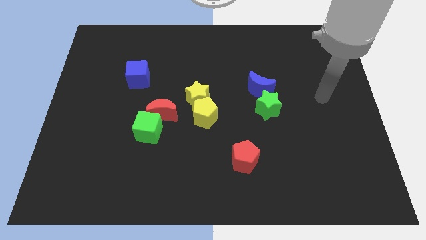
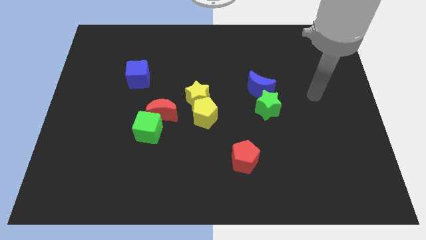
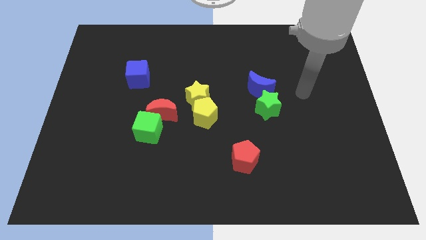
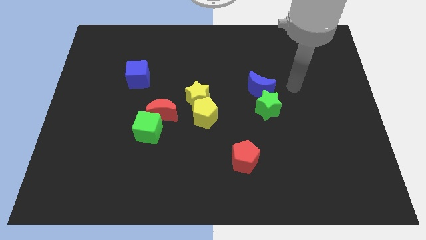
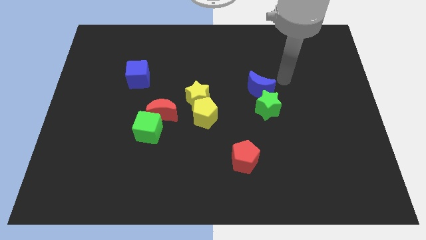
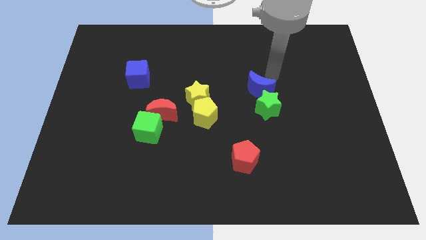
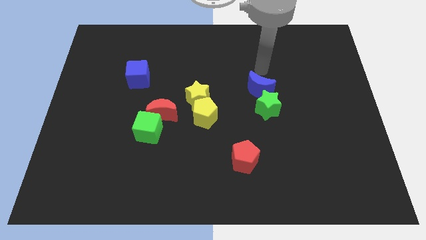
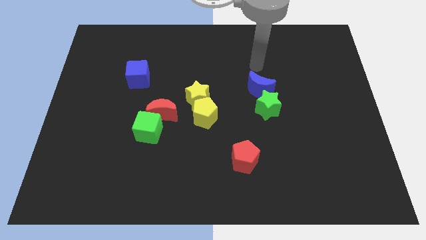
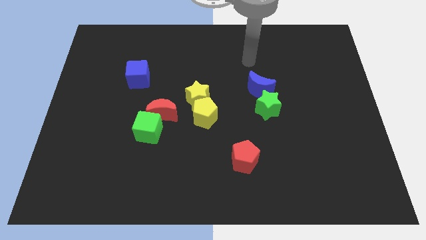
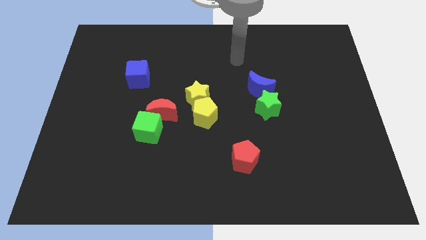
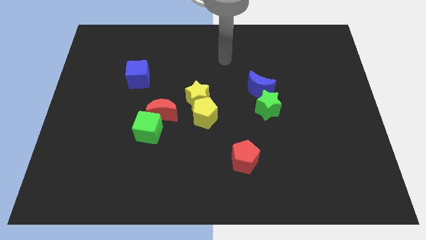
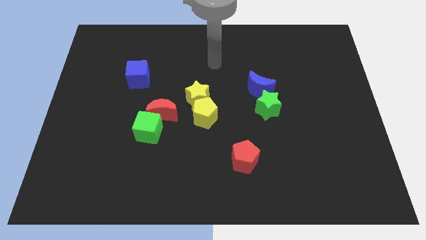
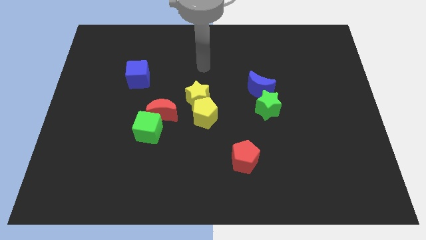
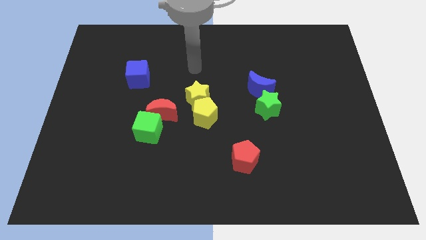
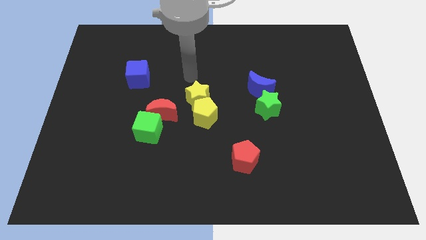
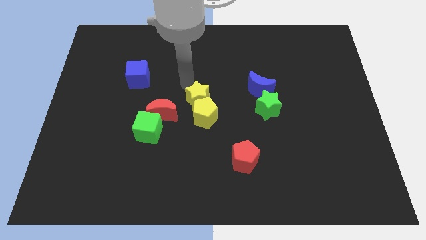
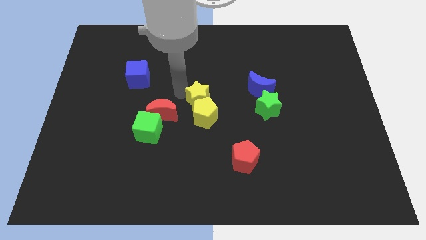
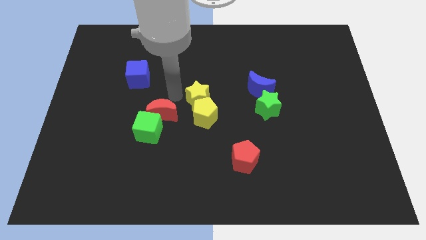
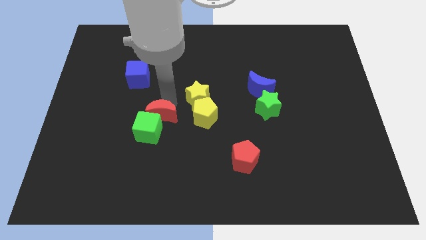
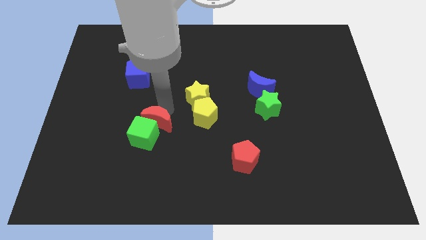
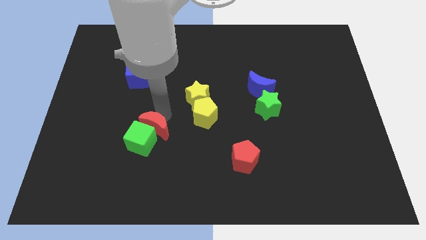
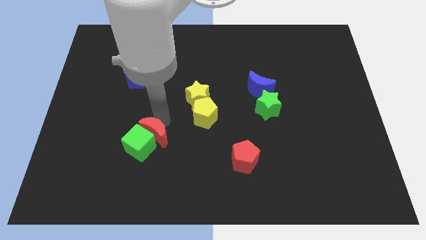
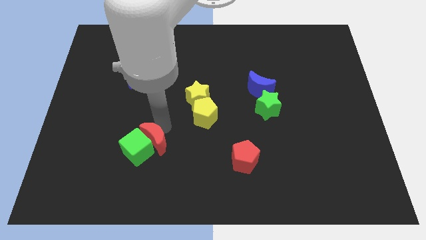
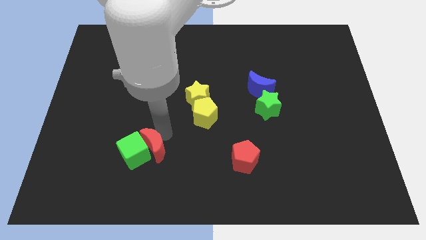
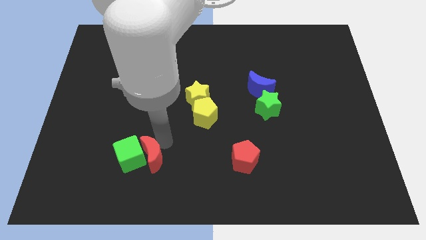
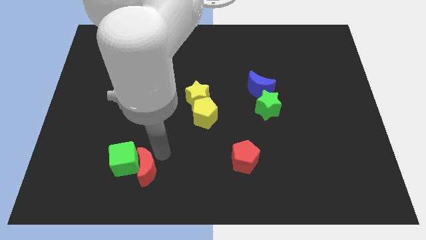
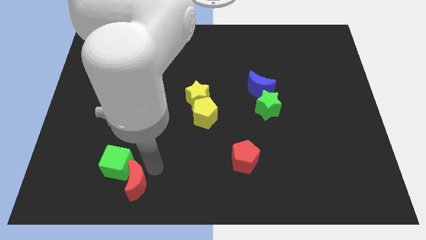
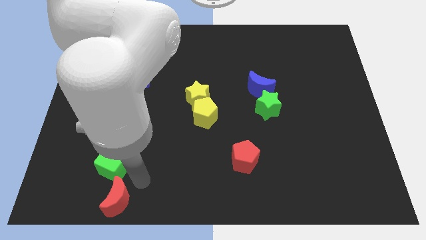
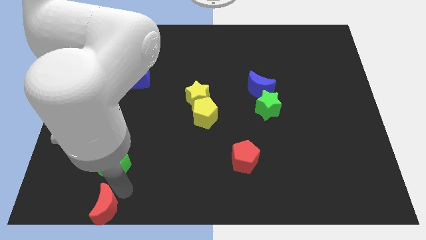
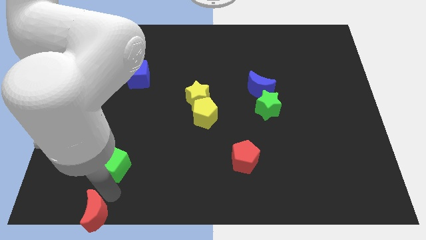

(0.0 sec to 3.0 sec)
pull the green cube apart from the red moon

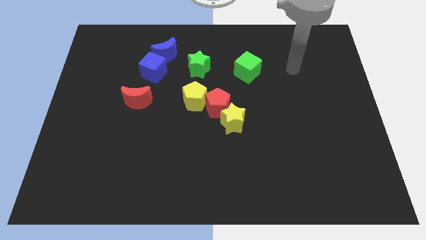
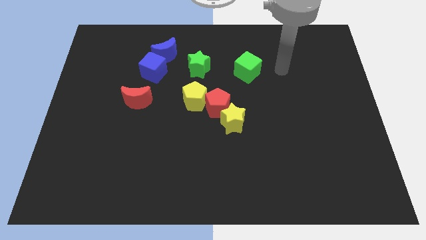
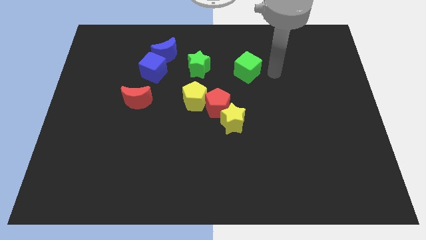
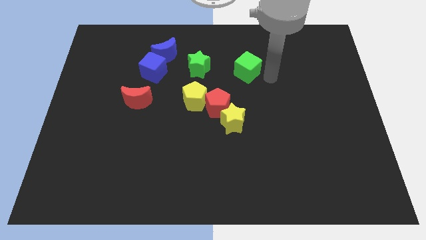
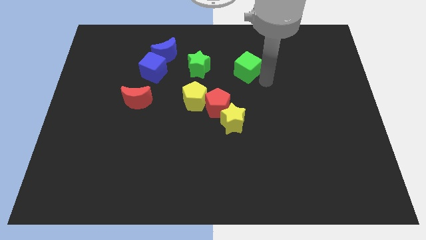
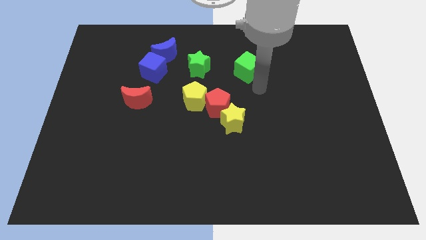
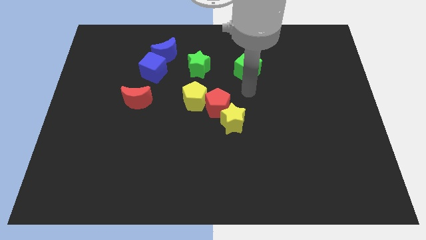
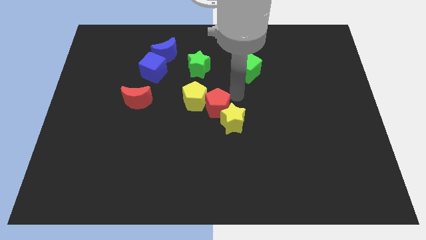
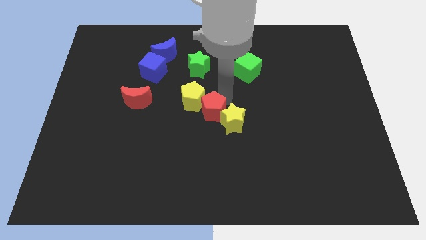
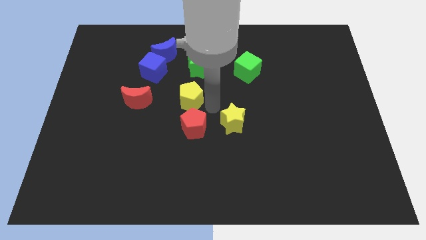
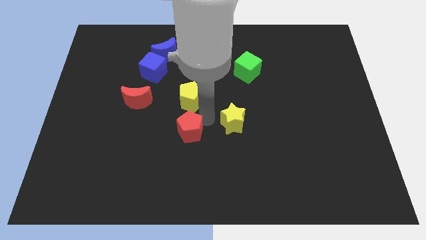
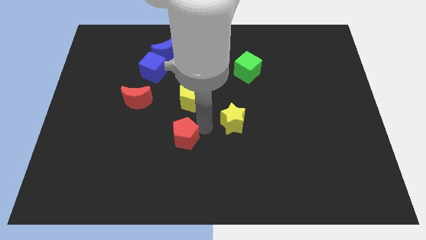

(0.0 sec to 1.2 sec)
move the yellow star away from the red pentagon

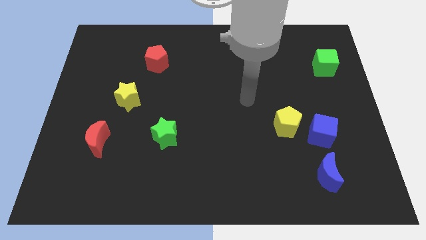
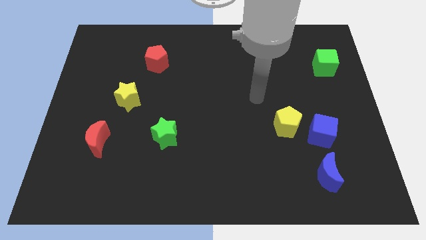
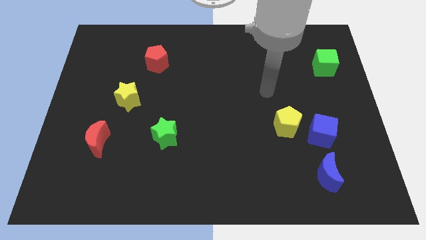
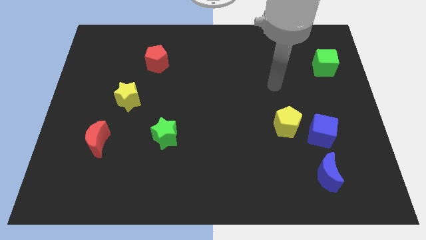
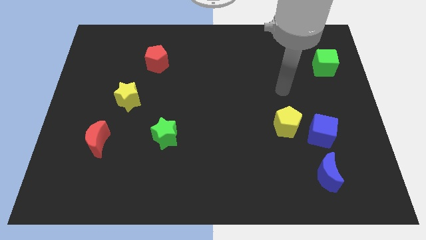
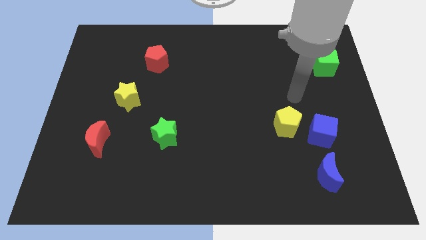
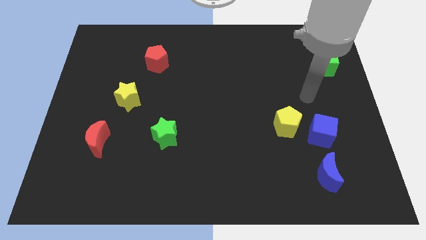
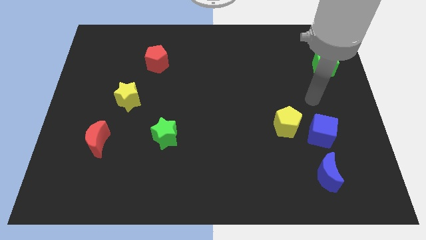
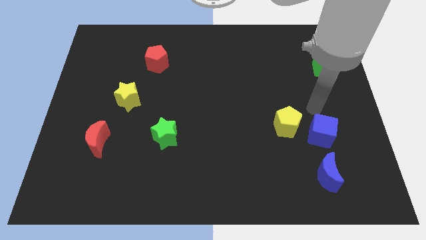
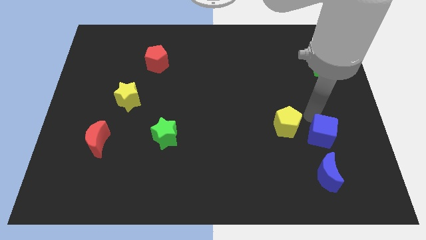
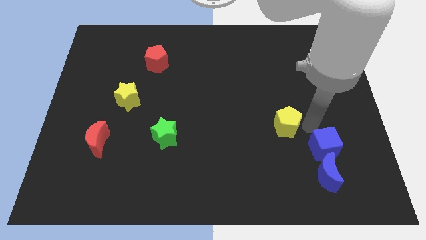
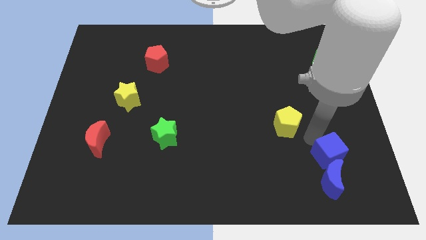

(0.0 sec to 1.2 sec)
pull the yellow pentagon apart from the blue cube

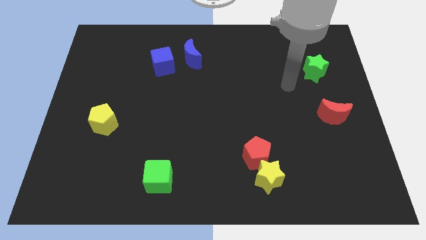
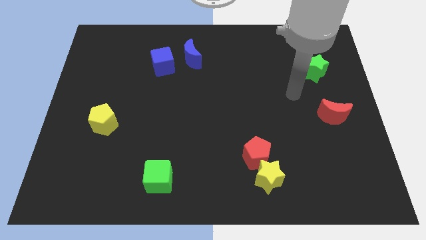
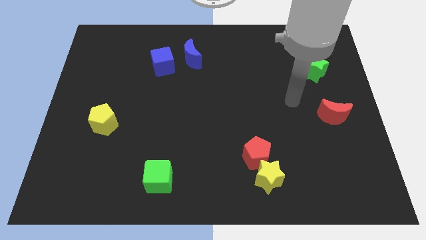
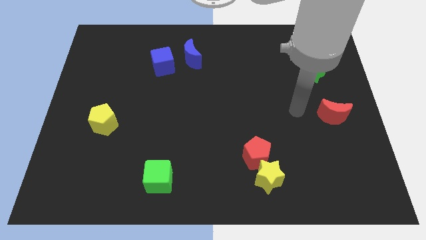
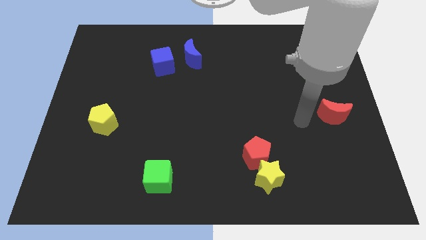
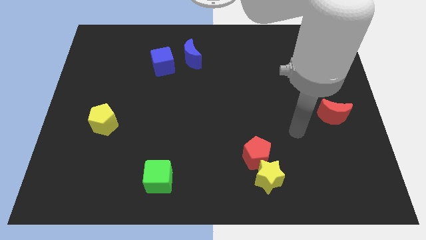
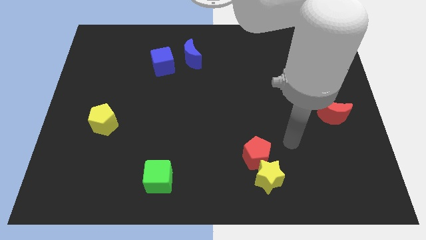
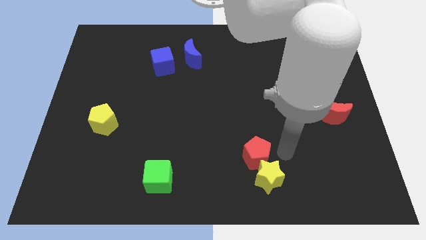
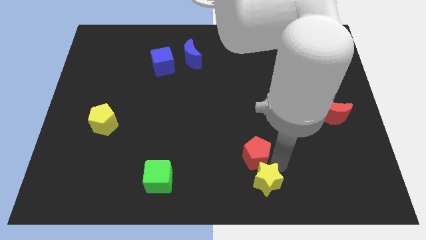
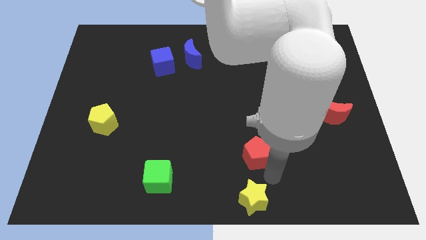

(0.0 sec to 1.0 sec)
move the red pentagon away from the yellow star

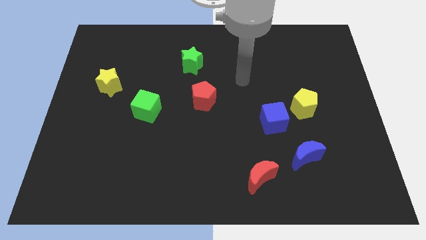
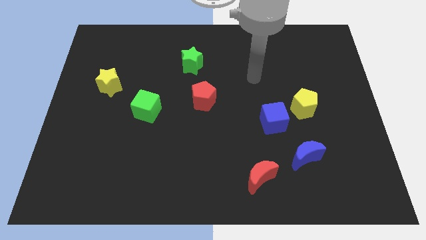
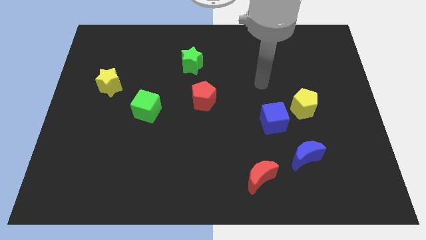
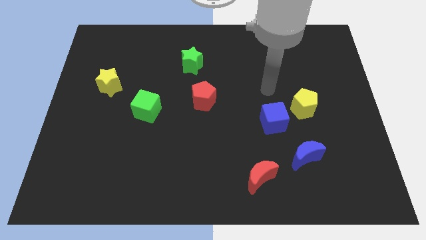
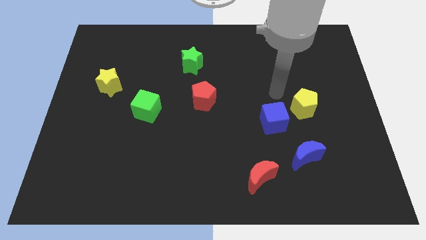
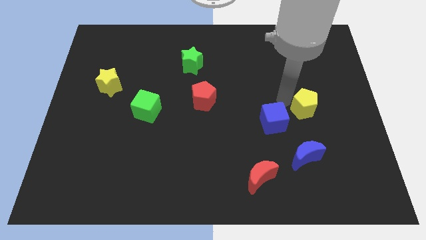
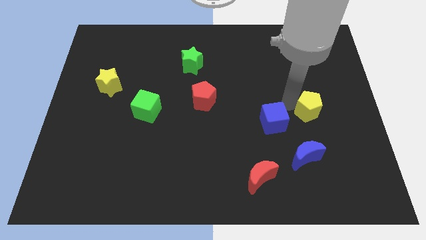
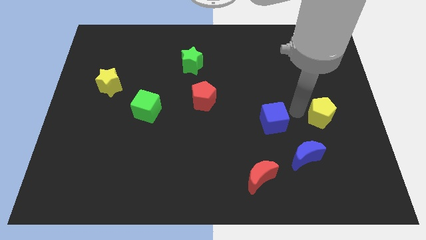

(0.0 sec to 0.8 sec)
separate the blue cube from the yellow pentagon

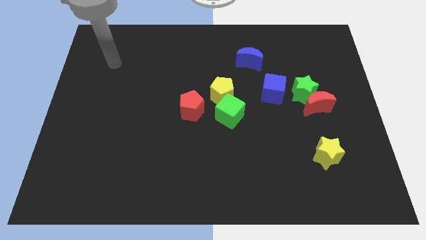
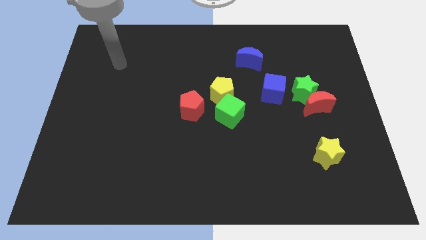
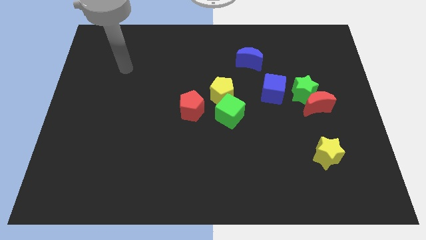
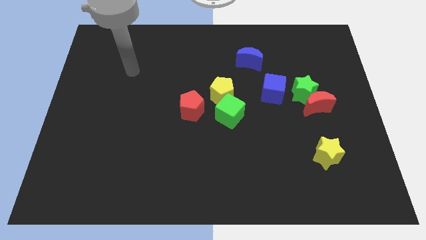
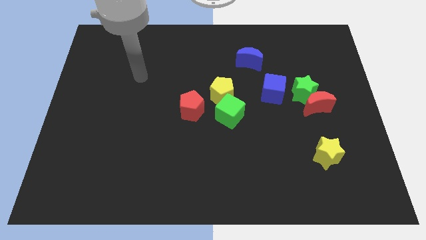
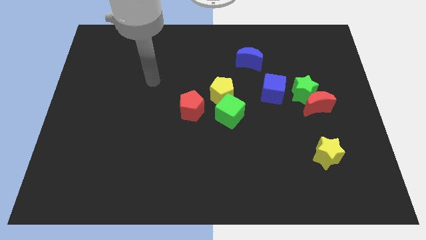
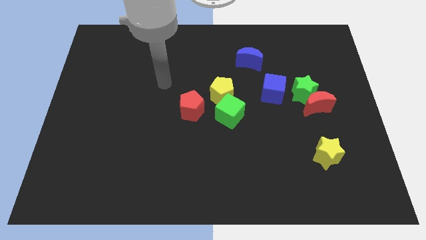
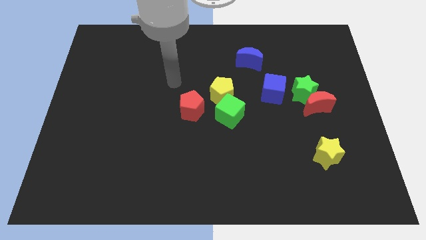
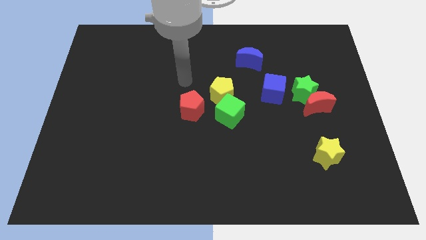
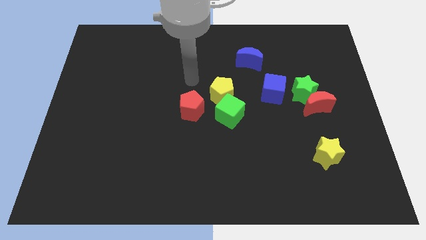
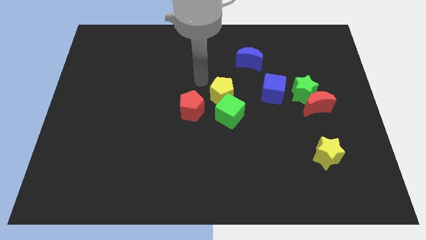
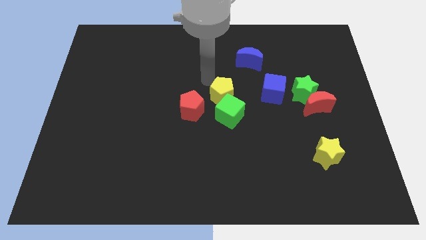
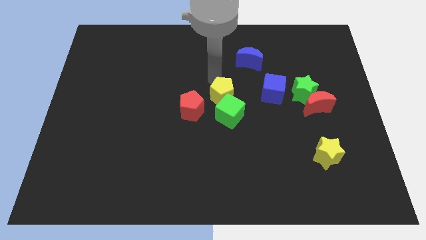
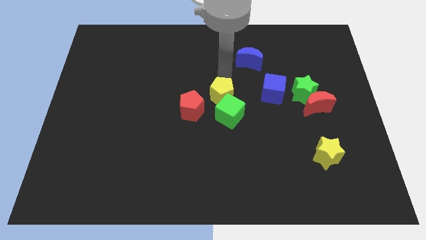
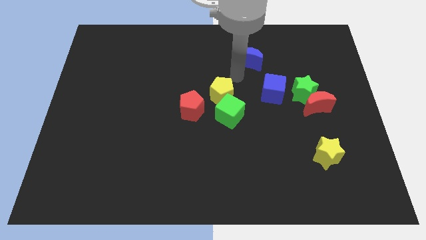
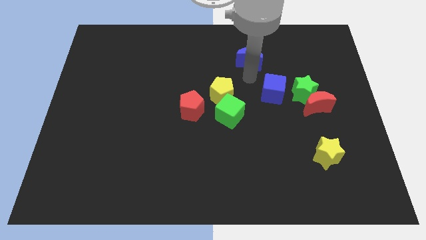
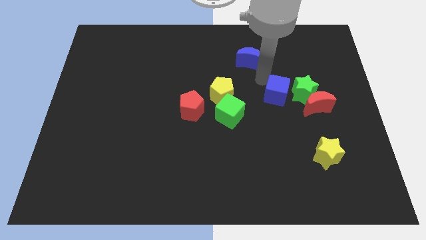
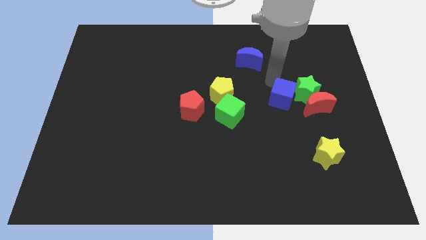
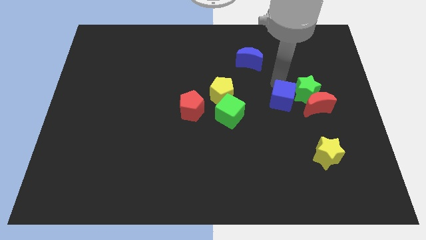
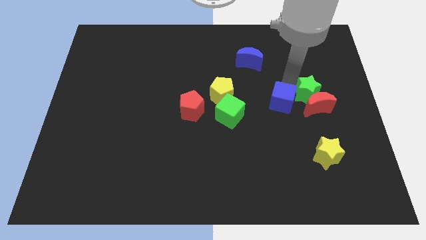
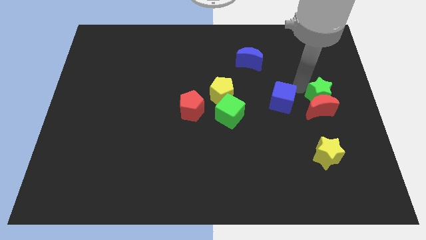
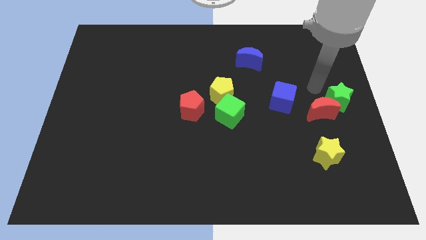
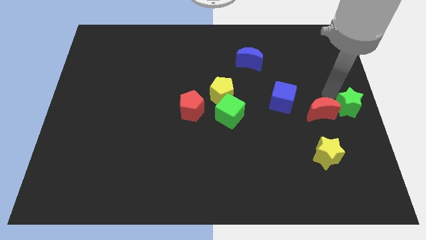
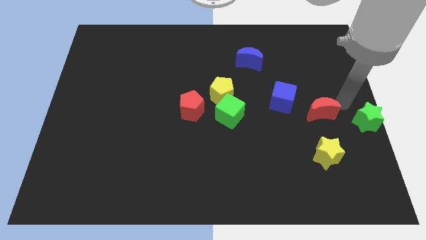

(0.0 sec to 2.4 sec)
separate the red moon from the green star
